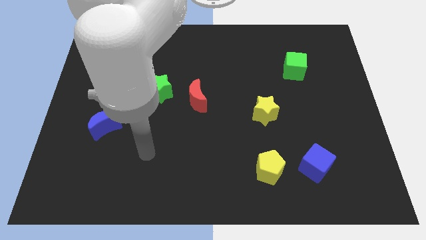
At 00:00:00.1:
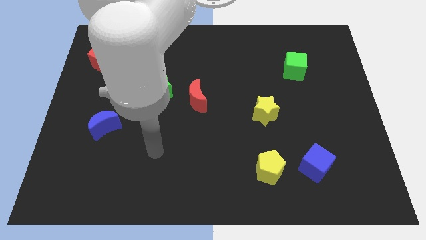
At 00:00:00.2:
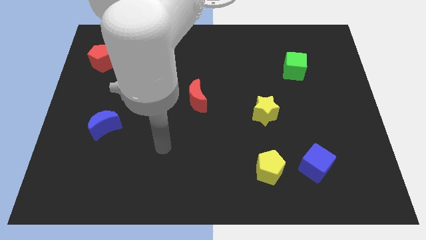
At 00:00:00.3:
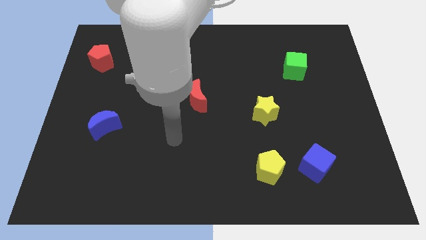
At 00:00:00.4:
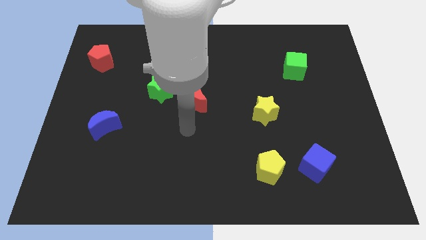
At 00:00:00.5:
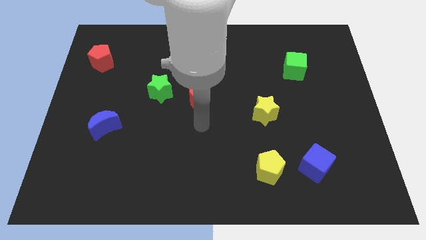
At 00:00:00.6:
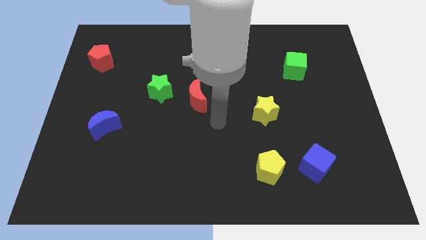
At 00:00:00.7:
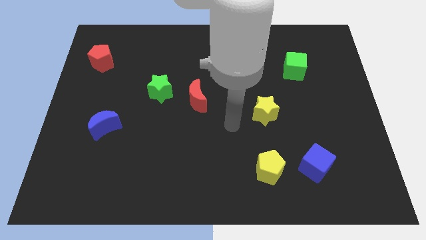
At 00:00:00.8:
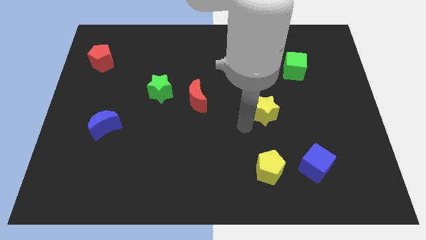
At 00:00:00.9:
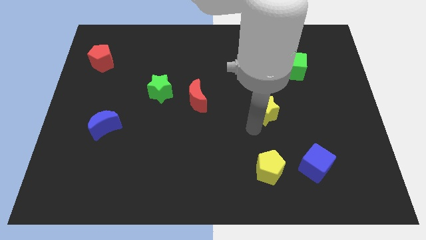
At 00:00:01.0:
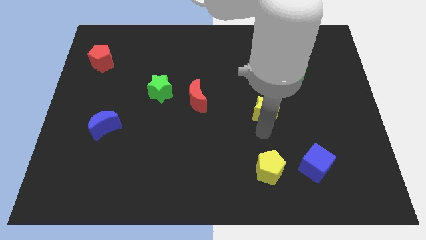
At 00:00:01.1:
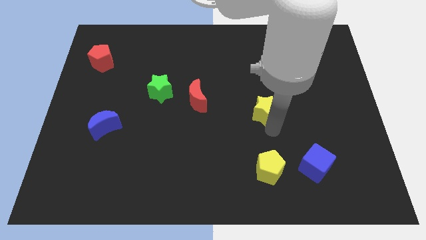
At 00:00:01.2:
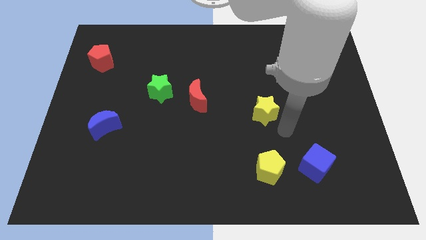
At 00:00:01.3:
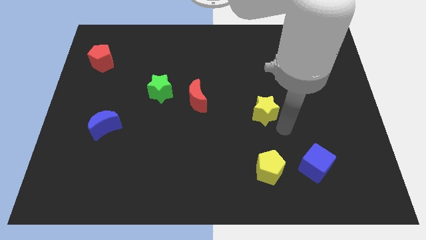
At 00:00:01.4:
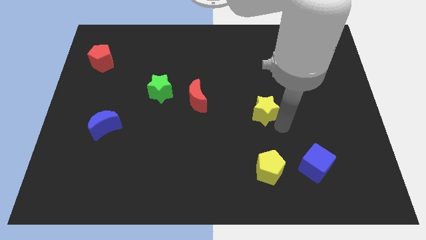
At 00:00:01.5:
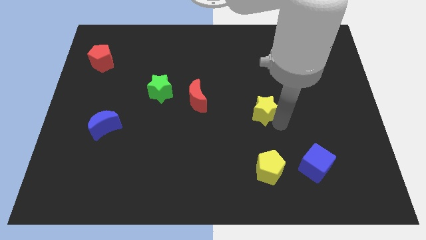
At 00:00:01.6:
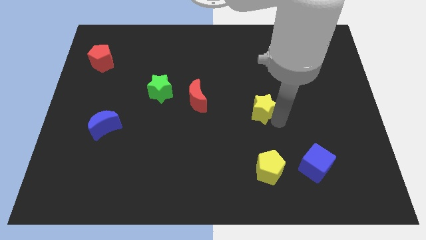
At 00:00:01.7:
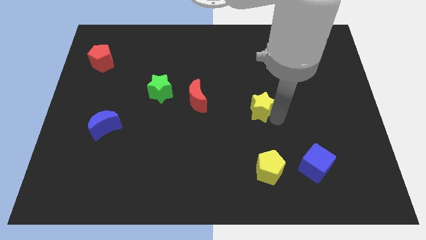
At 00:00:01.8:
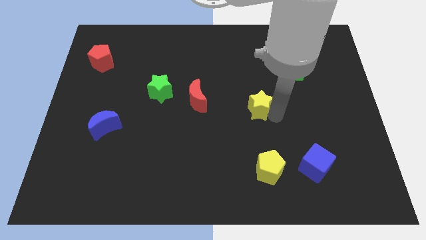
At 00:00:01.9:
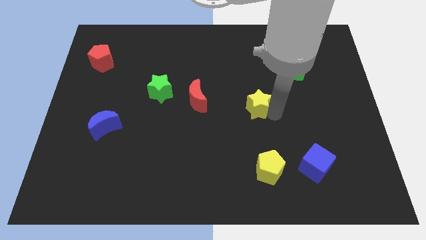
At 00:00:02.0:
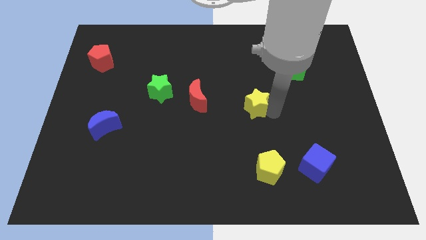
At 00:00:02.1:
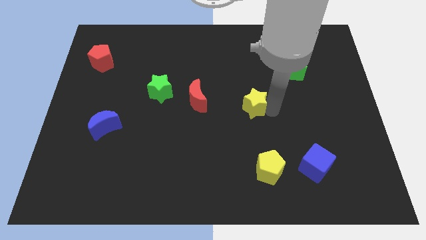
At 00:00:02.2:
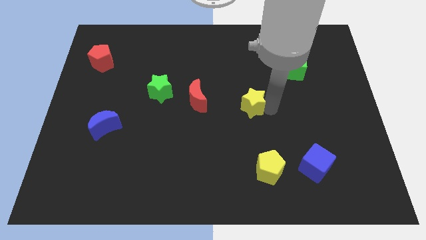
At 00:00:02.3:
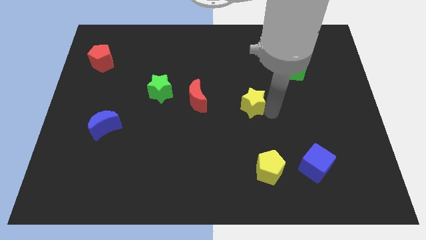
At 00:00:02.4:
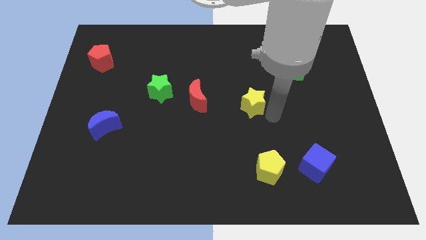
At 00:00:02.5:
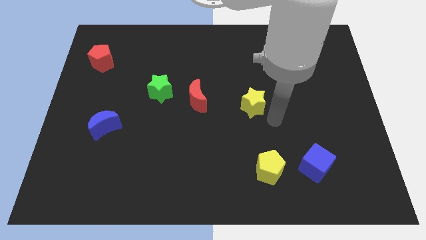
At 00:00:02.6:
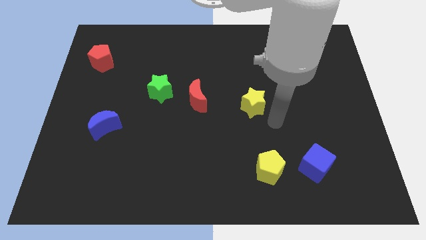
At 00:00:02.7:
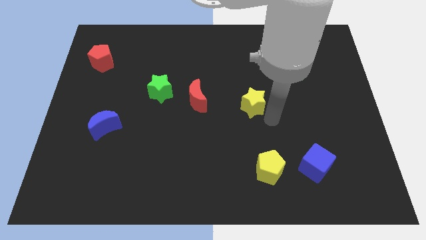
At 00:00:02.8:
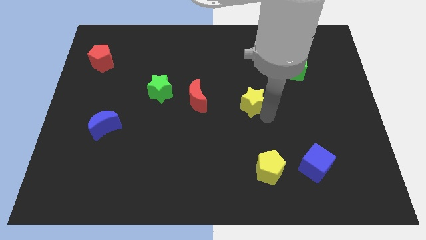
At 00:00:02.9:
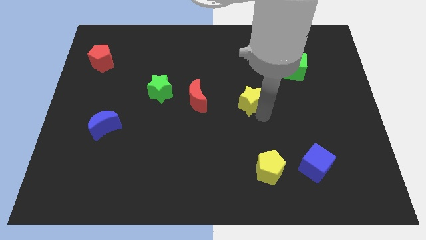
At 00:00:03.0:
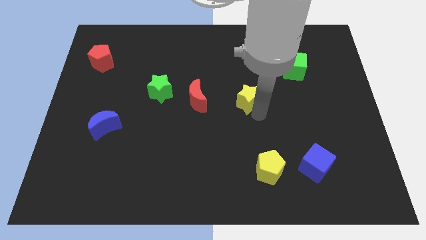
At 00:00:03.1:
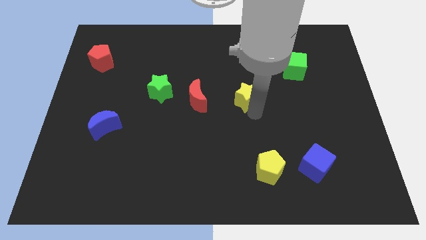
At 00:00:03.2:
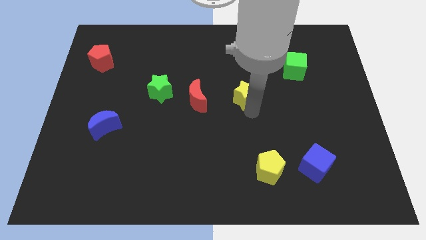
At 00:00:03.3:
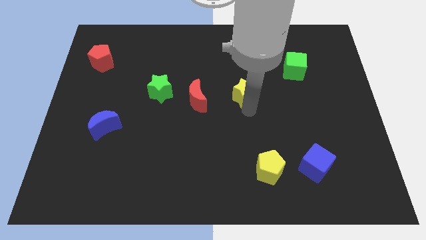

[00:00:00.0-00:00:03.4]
move the yellow star up and to the left diagonally a little

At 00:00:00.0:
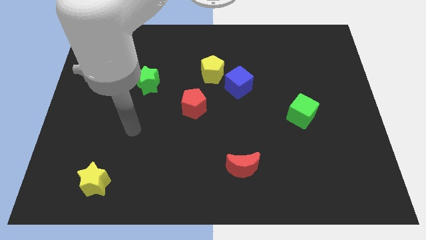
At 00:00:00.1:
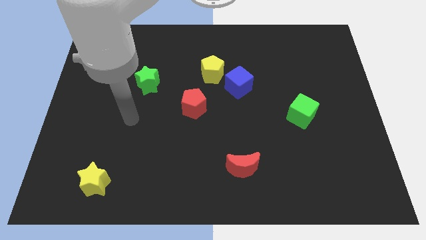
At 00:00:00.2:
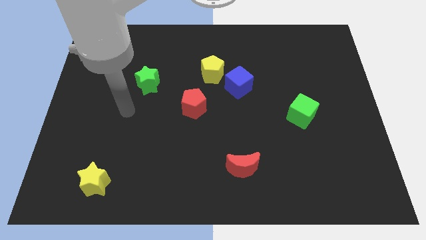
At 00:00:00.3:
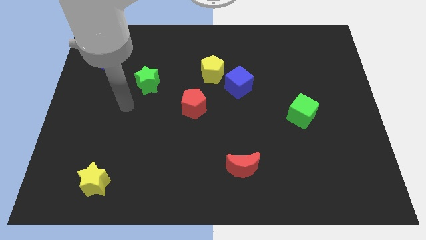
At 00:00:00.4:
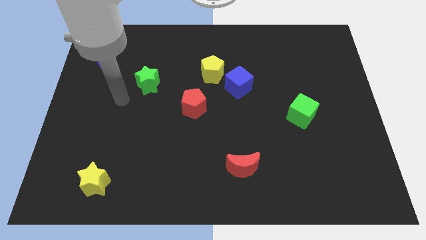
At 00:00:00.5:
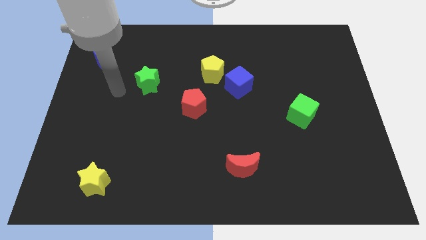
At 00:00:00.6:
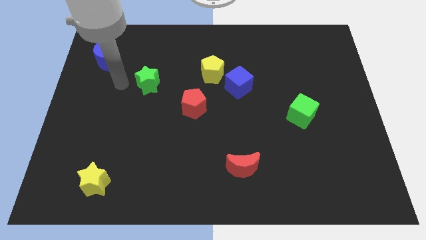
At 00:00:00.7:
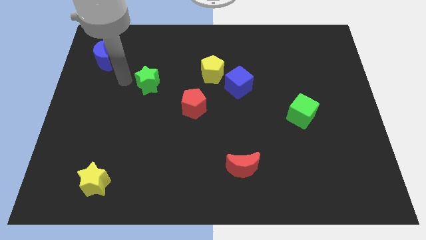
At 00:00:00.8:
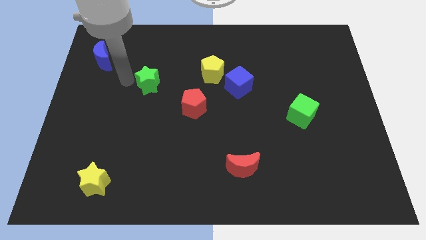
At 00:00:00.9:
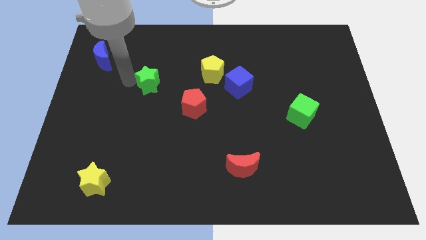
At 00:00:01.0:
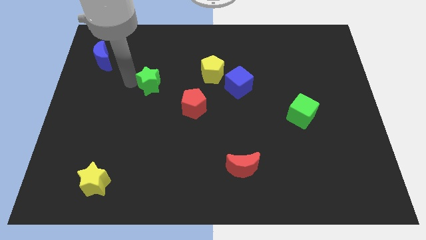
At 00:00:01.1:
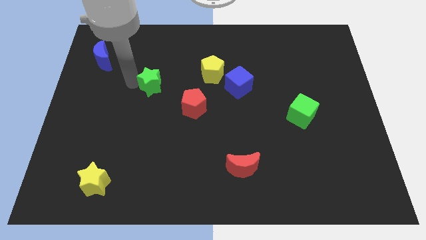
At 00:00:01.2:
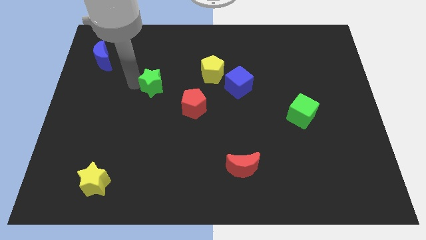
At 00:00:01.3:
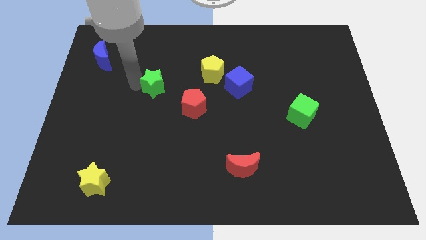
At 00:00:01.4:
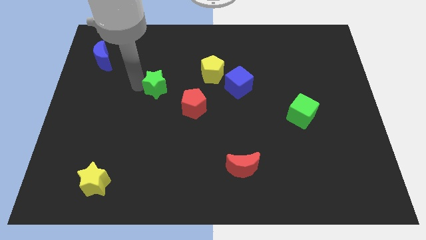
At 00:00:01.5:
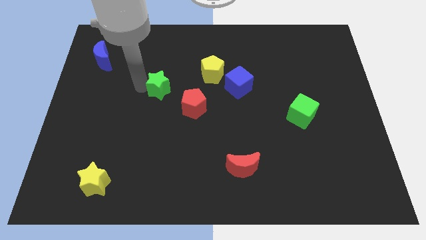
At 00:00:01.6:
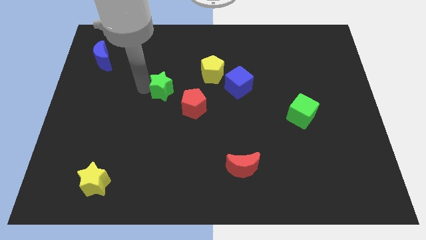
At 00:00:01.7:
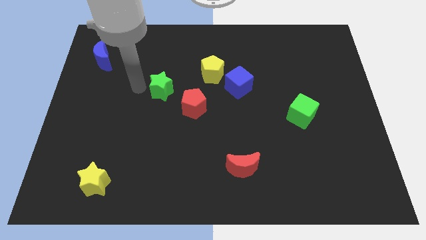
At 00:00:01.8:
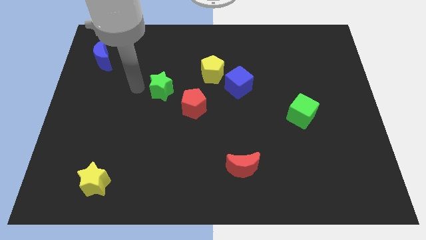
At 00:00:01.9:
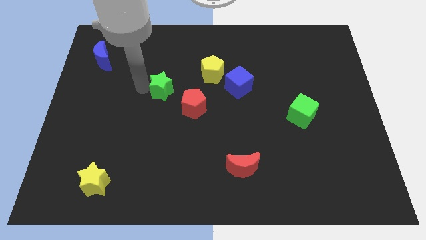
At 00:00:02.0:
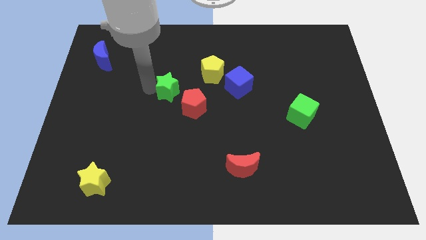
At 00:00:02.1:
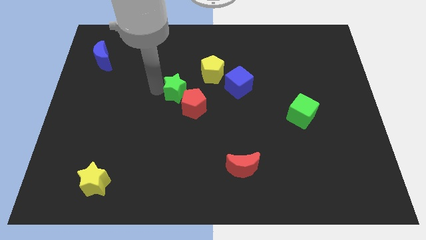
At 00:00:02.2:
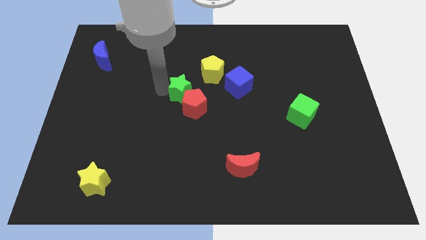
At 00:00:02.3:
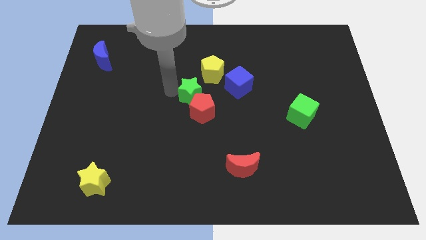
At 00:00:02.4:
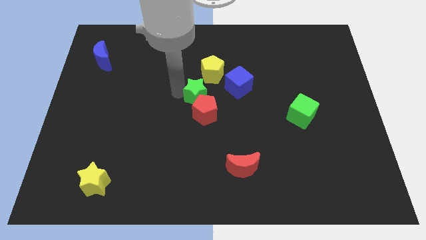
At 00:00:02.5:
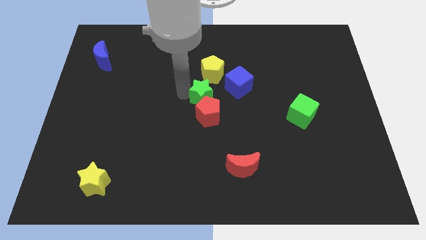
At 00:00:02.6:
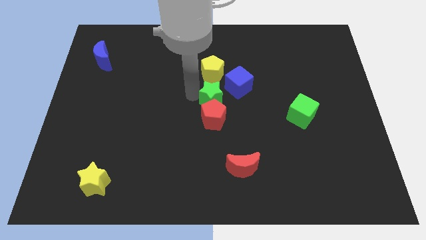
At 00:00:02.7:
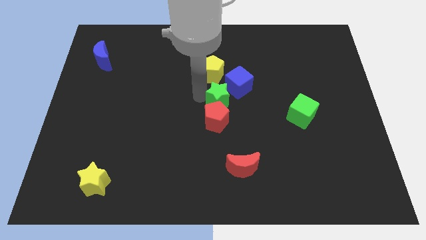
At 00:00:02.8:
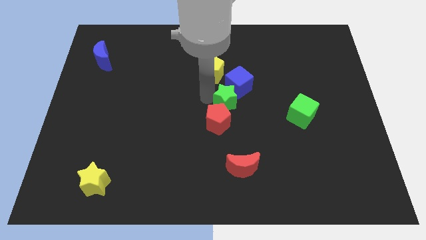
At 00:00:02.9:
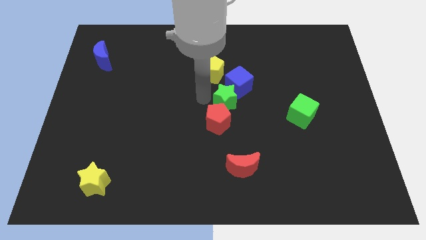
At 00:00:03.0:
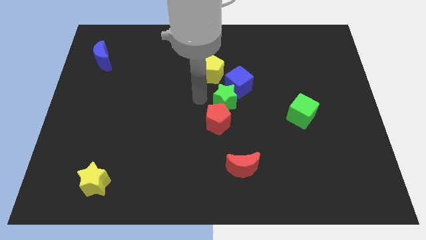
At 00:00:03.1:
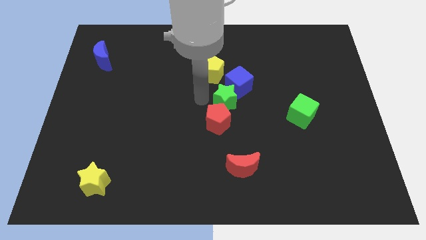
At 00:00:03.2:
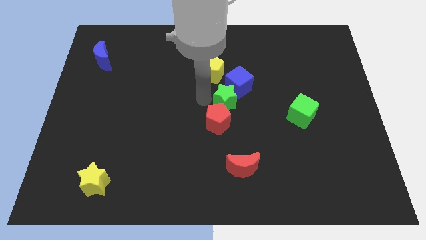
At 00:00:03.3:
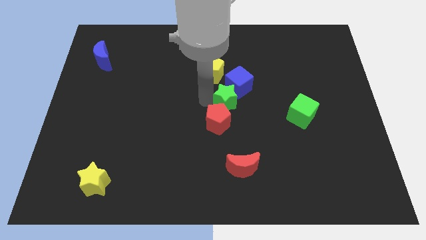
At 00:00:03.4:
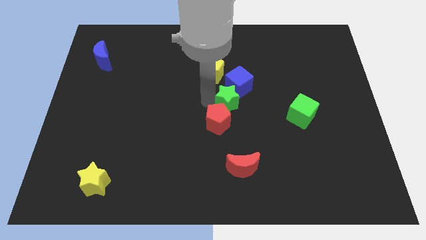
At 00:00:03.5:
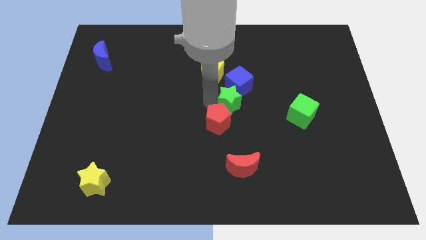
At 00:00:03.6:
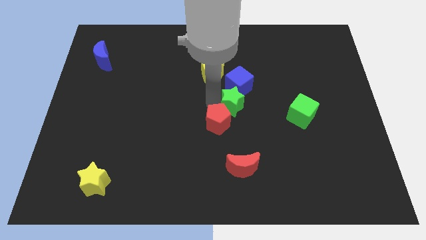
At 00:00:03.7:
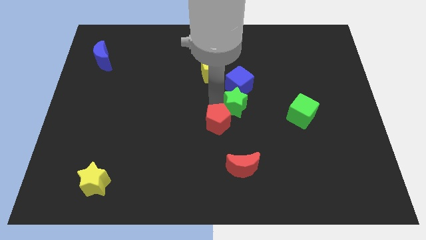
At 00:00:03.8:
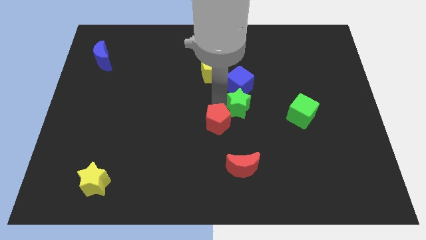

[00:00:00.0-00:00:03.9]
slide the green star to the right

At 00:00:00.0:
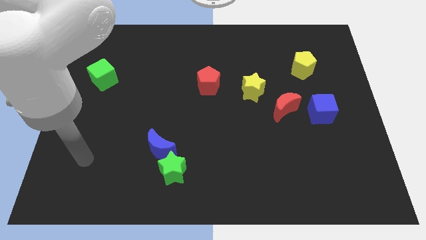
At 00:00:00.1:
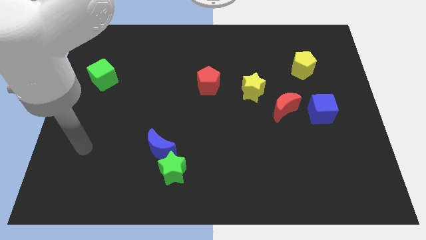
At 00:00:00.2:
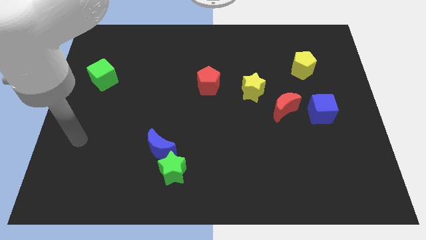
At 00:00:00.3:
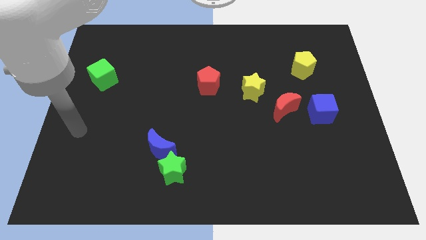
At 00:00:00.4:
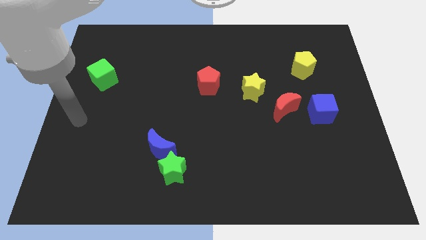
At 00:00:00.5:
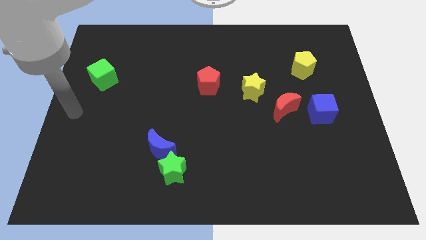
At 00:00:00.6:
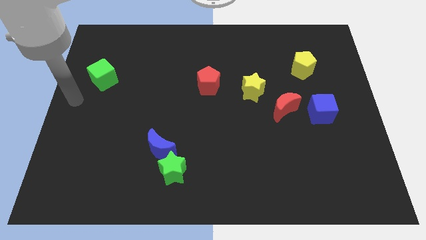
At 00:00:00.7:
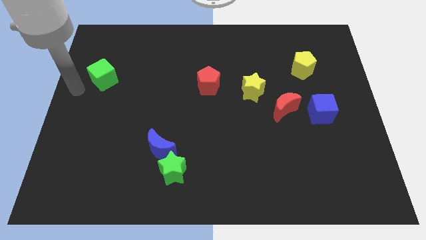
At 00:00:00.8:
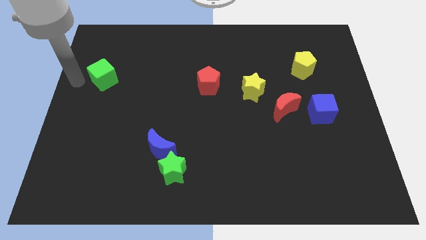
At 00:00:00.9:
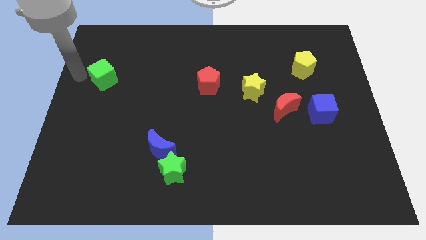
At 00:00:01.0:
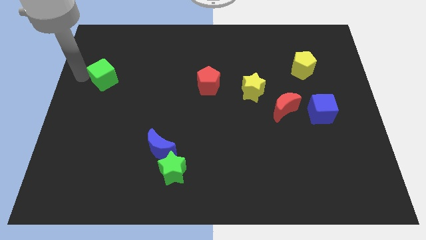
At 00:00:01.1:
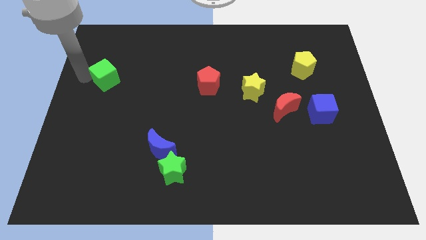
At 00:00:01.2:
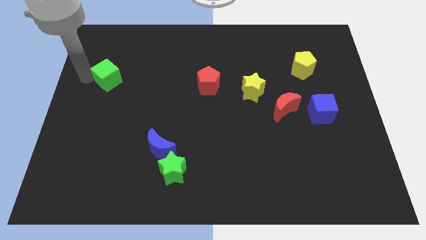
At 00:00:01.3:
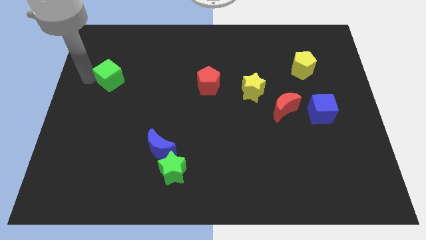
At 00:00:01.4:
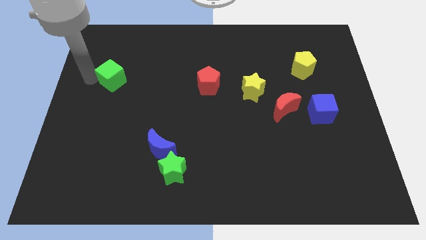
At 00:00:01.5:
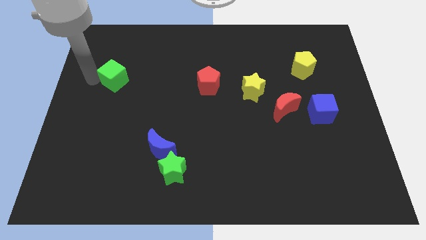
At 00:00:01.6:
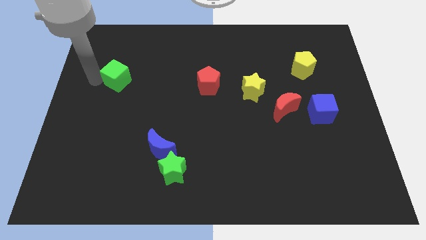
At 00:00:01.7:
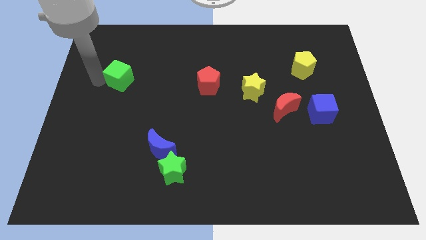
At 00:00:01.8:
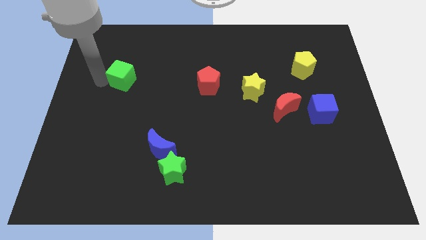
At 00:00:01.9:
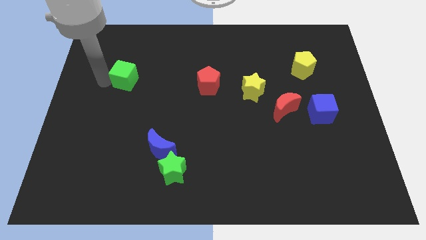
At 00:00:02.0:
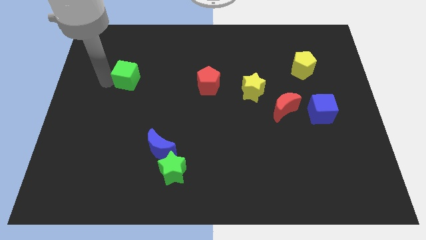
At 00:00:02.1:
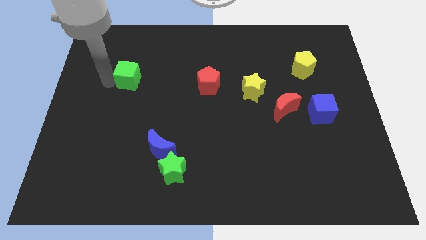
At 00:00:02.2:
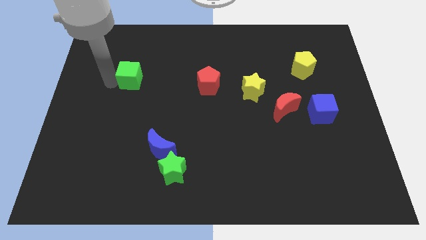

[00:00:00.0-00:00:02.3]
slightly move the green cube right
